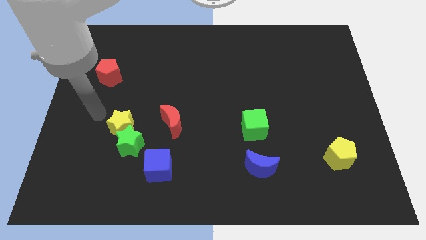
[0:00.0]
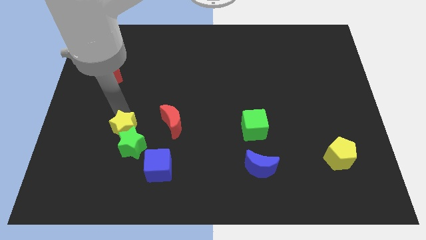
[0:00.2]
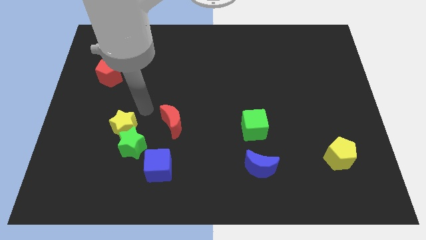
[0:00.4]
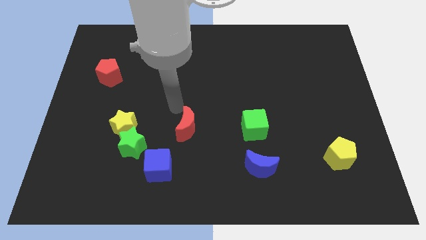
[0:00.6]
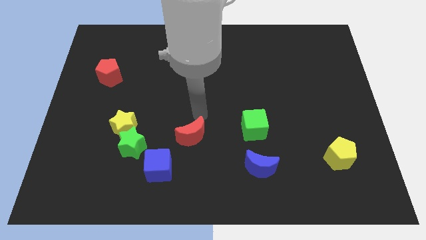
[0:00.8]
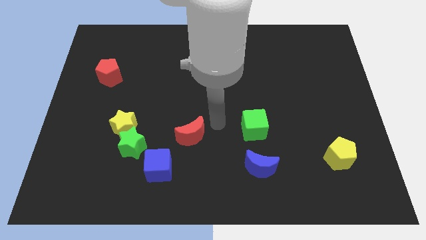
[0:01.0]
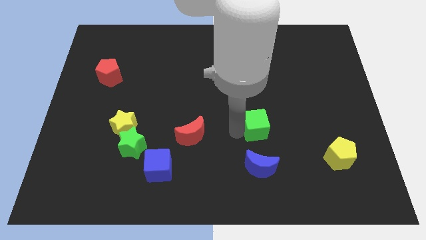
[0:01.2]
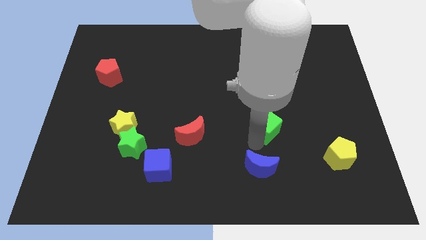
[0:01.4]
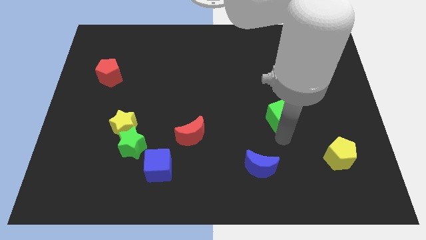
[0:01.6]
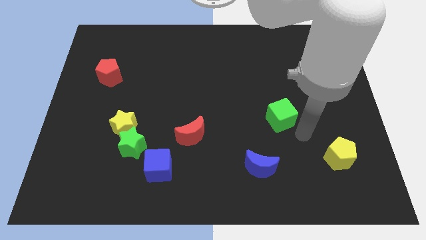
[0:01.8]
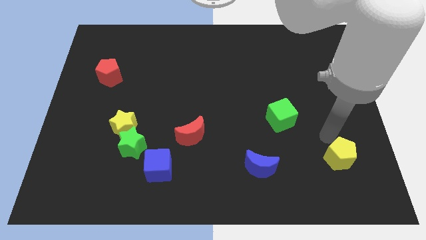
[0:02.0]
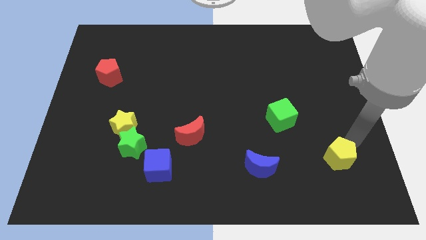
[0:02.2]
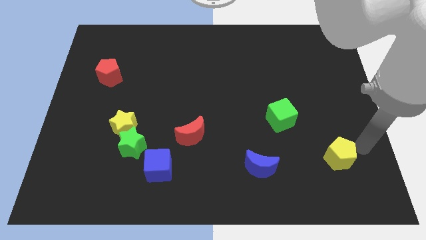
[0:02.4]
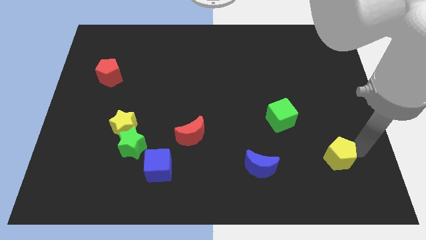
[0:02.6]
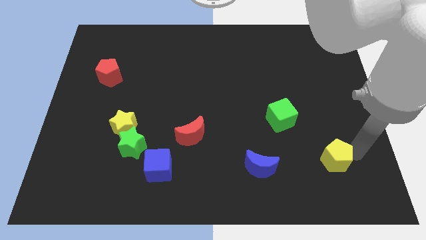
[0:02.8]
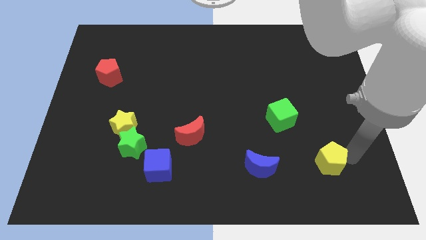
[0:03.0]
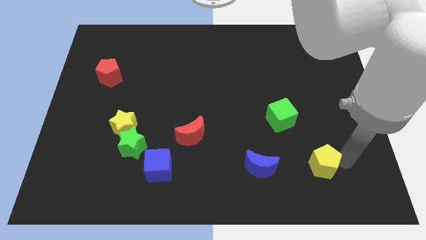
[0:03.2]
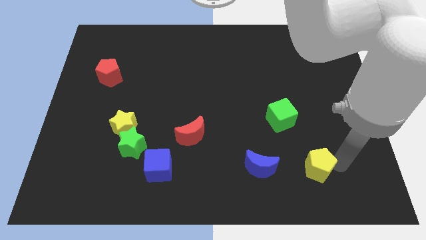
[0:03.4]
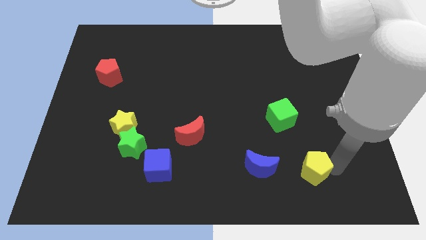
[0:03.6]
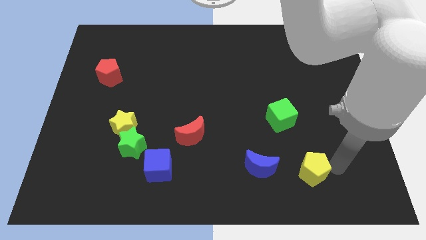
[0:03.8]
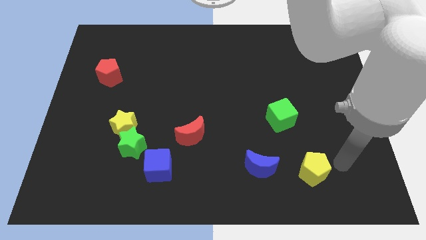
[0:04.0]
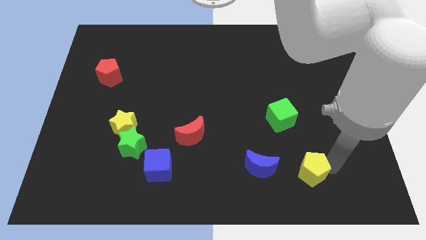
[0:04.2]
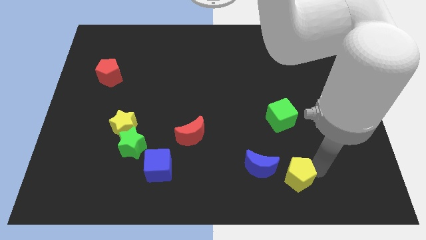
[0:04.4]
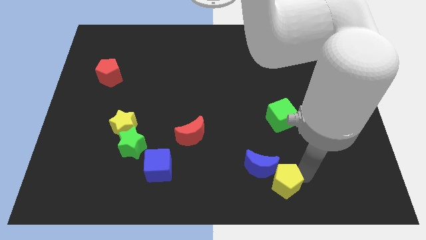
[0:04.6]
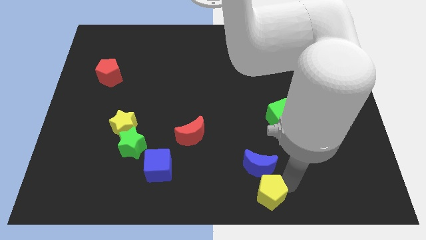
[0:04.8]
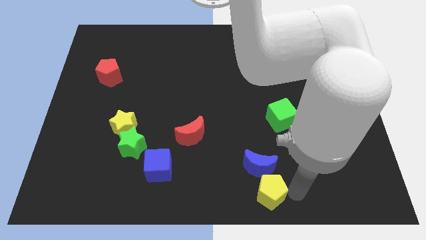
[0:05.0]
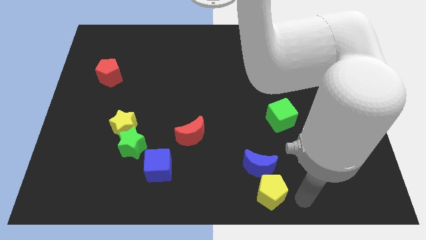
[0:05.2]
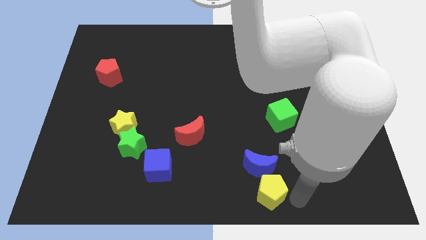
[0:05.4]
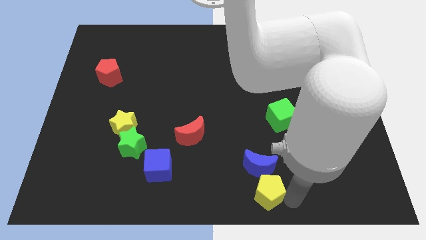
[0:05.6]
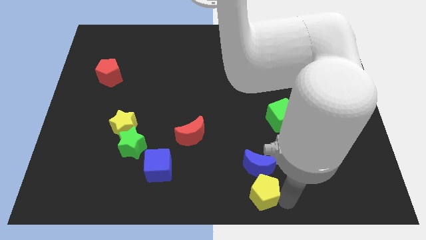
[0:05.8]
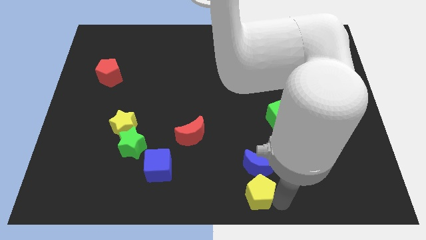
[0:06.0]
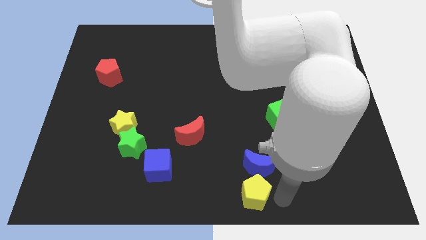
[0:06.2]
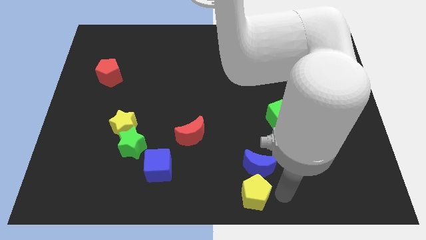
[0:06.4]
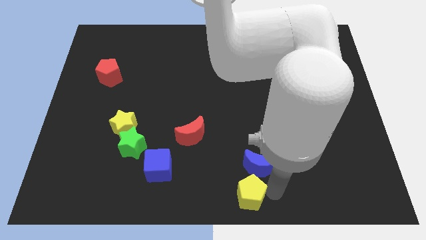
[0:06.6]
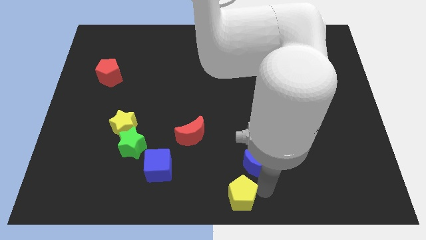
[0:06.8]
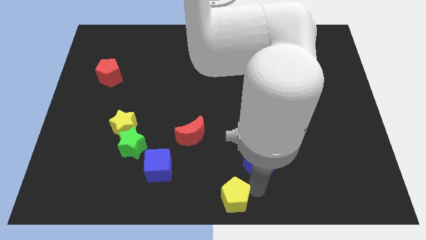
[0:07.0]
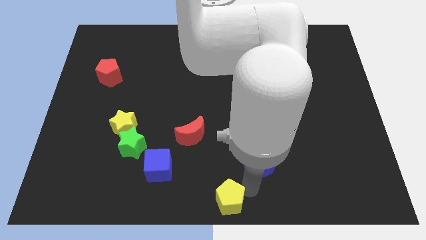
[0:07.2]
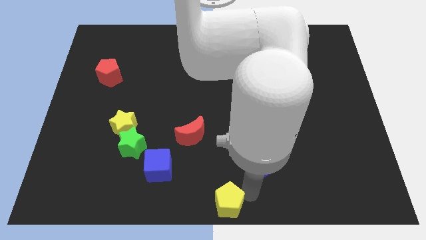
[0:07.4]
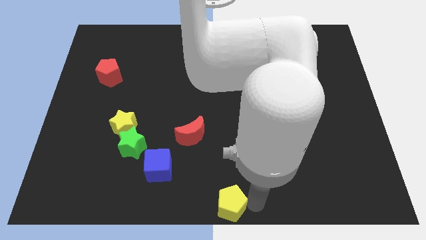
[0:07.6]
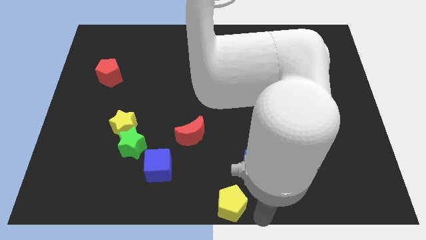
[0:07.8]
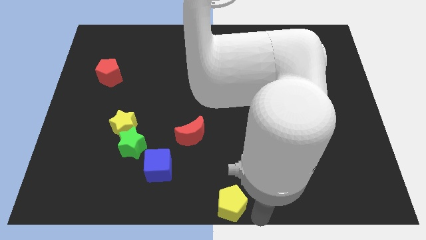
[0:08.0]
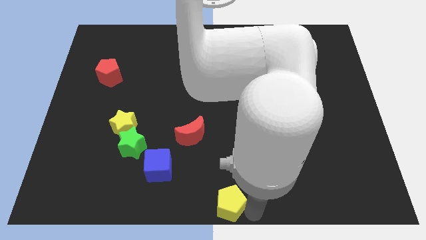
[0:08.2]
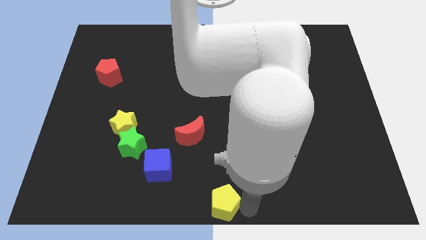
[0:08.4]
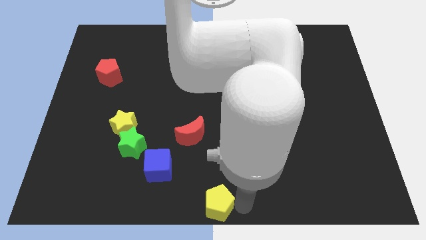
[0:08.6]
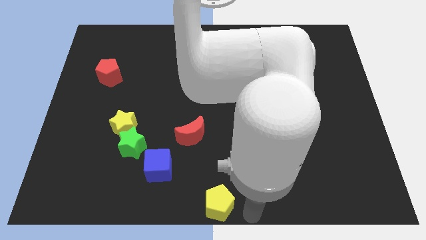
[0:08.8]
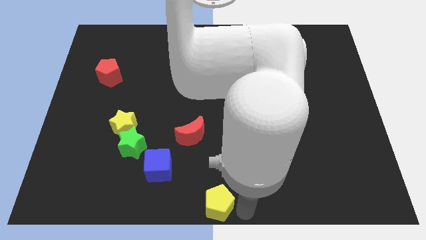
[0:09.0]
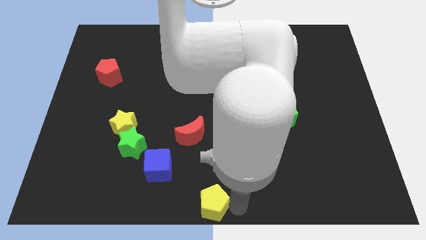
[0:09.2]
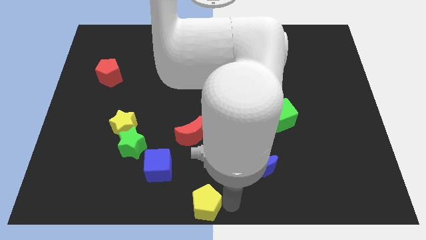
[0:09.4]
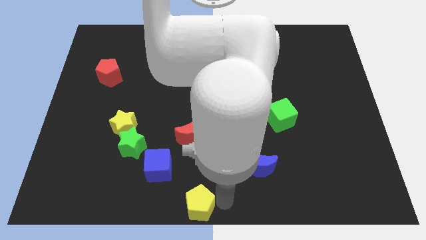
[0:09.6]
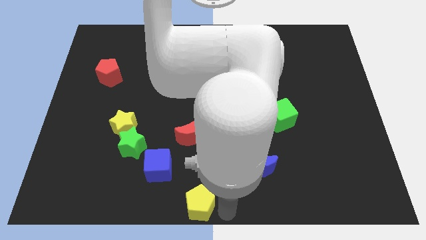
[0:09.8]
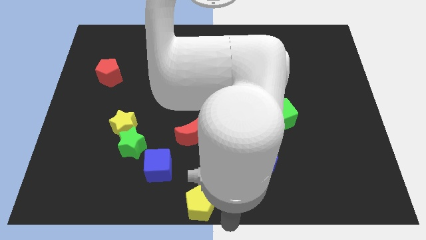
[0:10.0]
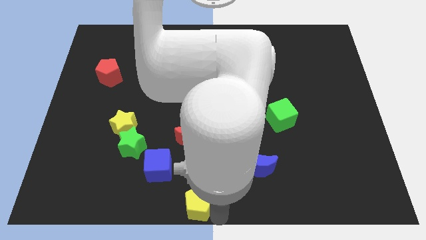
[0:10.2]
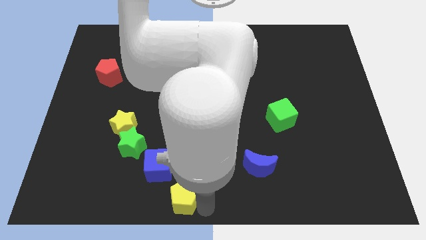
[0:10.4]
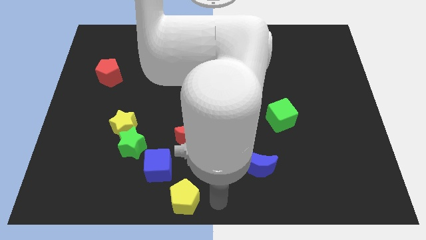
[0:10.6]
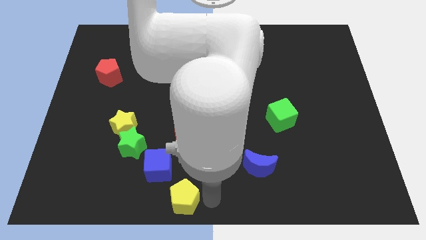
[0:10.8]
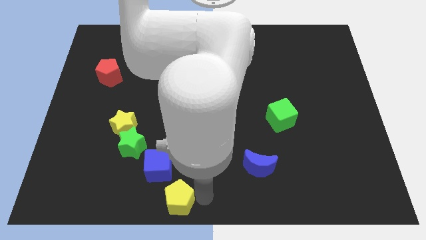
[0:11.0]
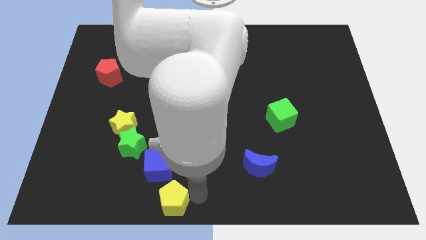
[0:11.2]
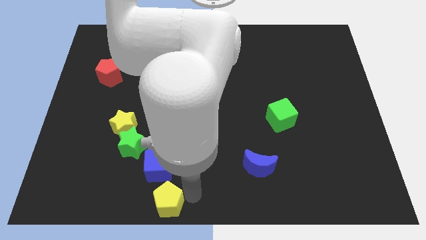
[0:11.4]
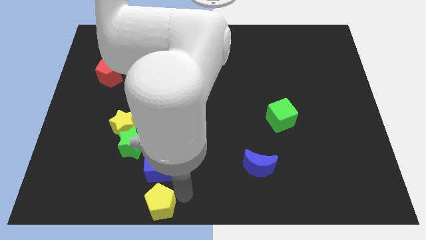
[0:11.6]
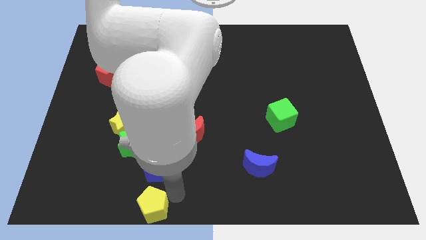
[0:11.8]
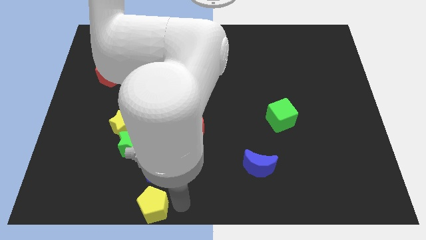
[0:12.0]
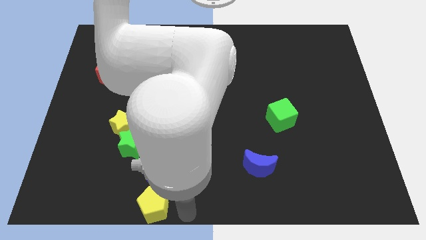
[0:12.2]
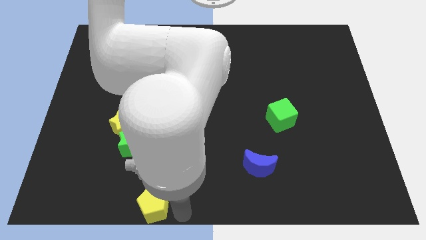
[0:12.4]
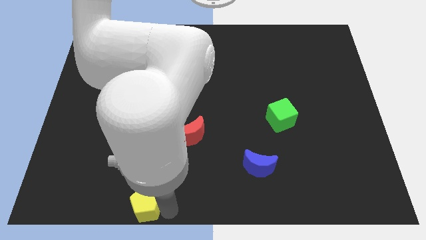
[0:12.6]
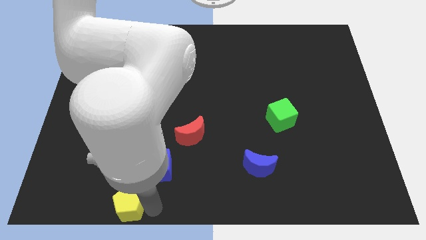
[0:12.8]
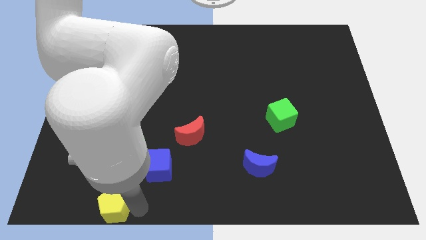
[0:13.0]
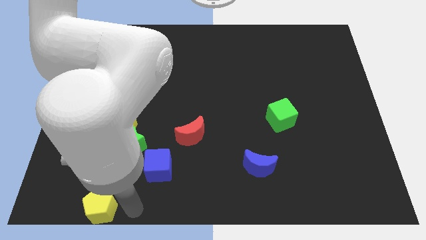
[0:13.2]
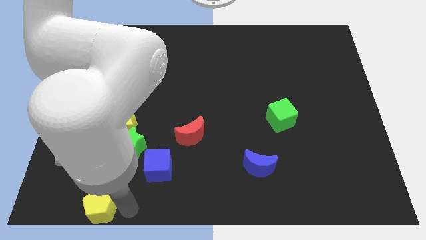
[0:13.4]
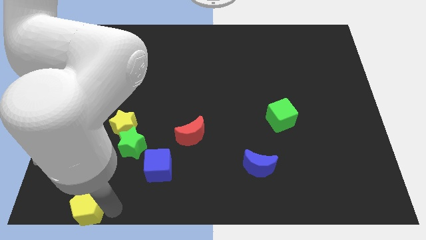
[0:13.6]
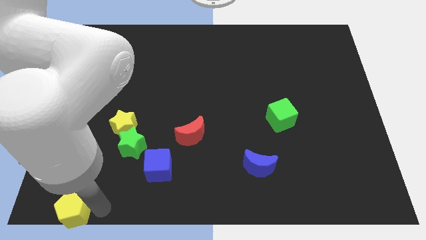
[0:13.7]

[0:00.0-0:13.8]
slide the yellow pentagon to the bottom left of the board
